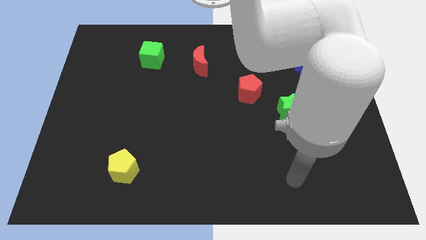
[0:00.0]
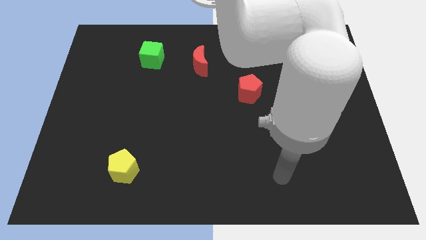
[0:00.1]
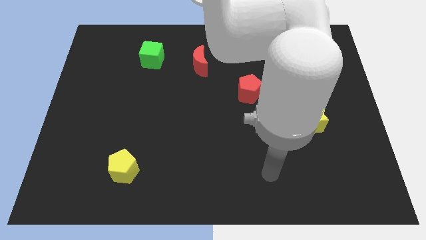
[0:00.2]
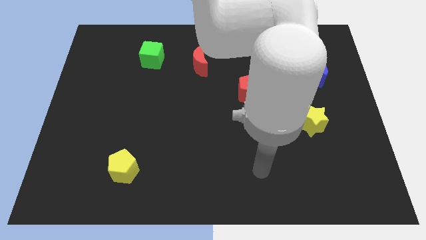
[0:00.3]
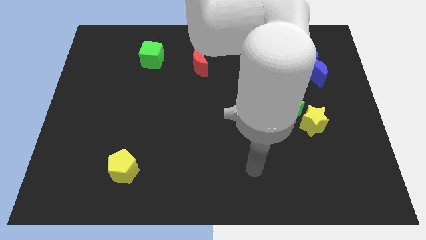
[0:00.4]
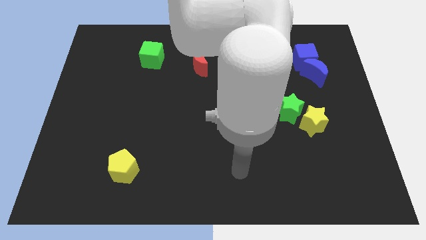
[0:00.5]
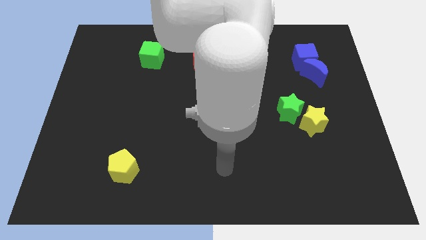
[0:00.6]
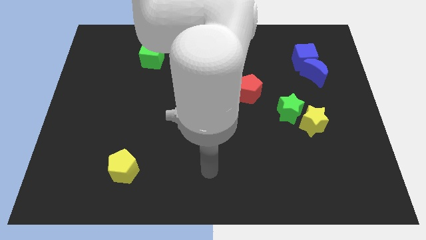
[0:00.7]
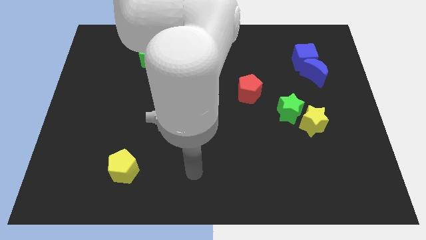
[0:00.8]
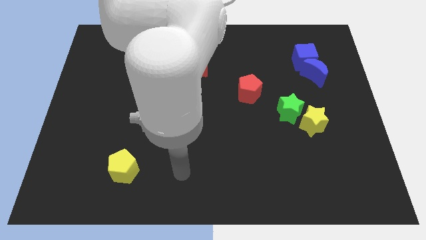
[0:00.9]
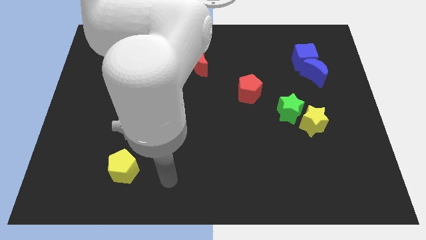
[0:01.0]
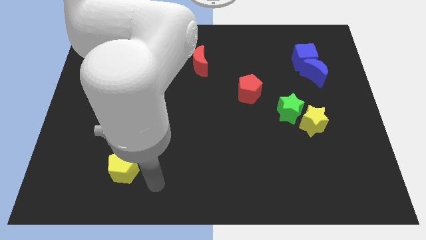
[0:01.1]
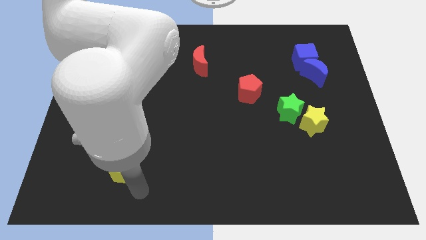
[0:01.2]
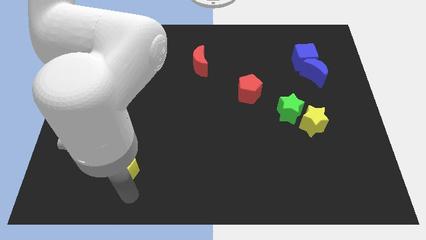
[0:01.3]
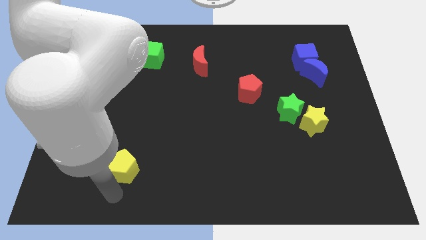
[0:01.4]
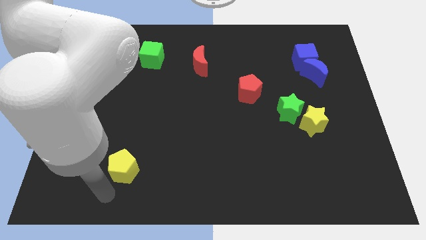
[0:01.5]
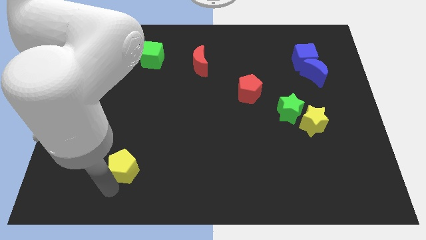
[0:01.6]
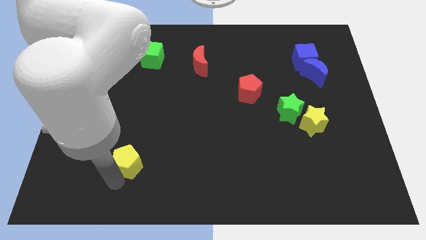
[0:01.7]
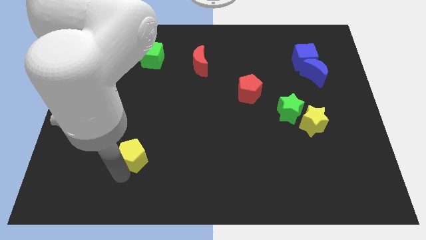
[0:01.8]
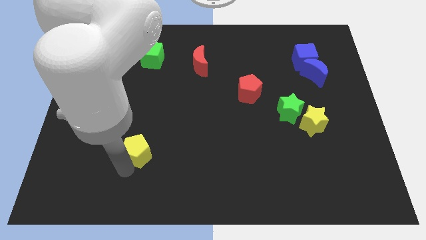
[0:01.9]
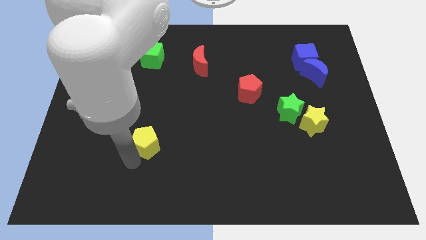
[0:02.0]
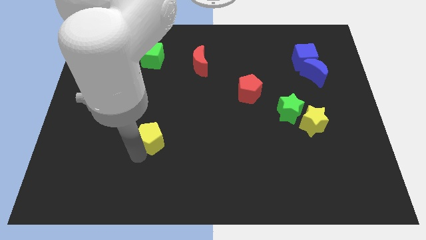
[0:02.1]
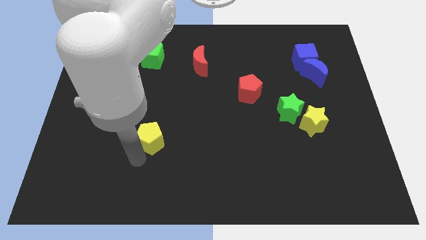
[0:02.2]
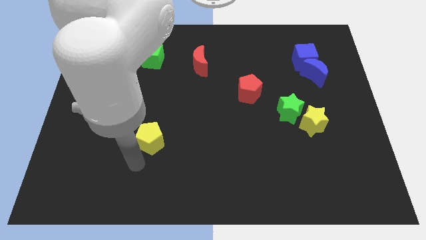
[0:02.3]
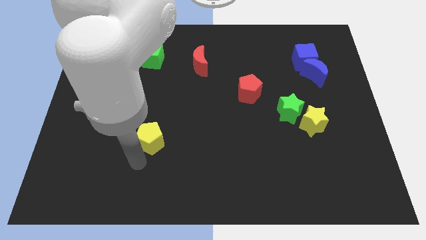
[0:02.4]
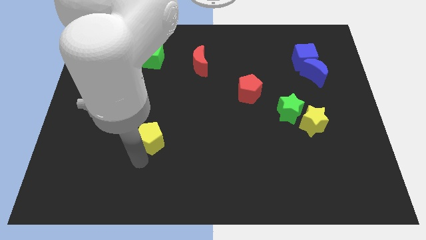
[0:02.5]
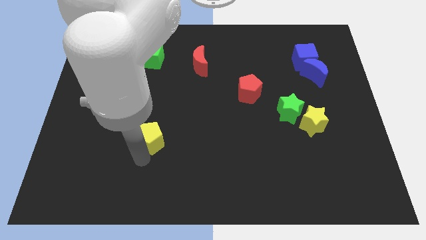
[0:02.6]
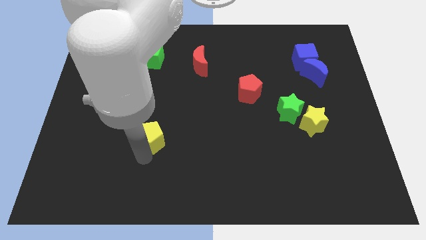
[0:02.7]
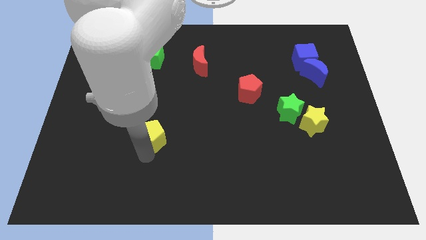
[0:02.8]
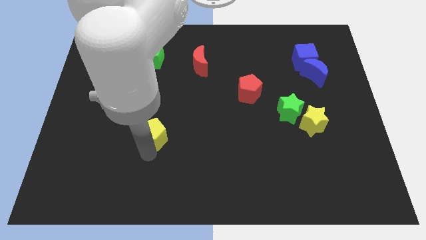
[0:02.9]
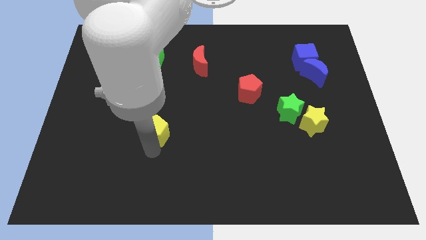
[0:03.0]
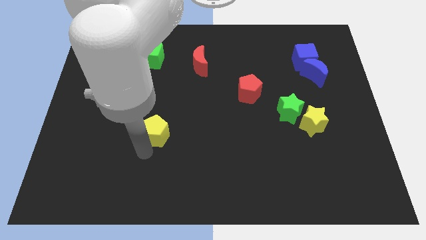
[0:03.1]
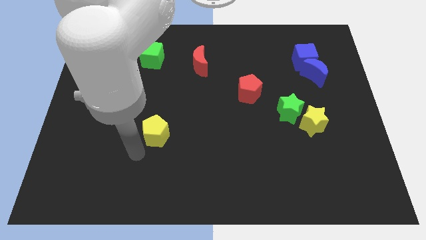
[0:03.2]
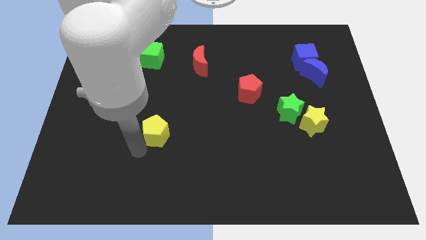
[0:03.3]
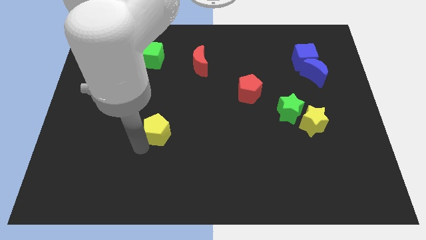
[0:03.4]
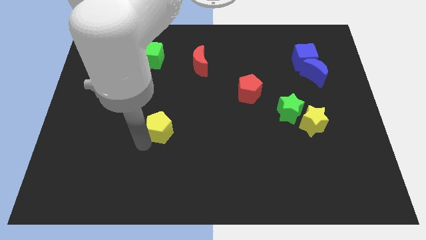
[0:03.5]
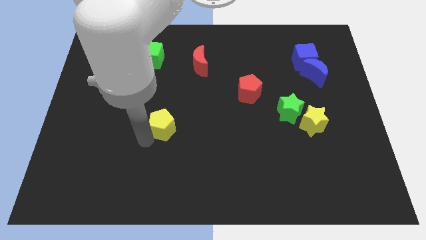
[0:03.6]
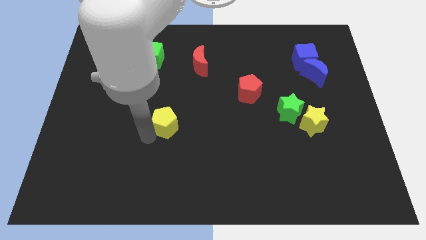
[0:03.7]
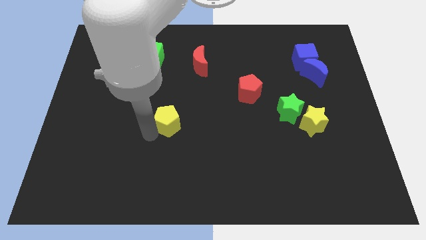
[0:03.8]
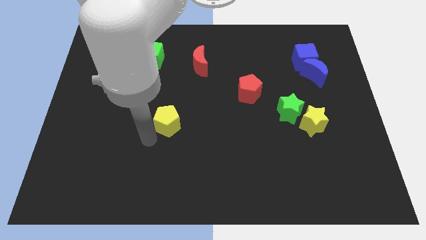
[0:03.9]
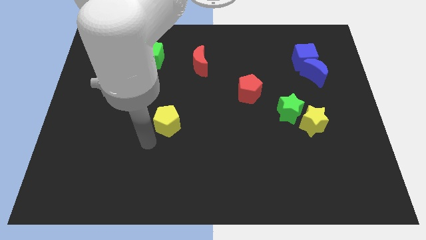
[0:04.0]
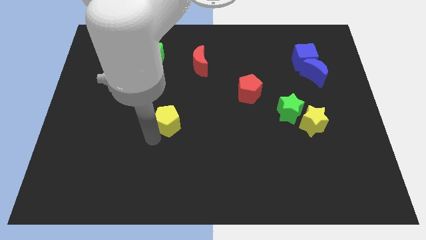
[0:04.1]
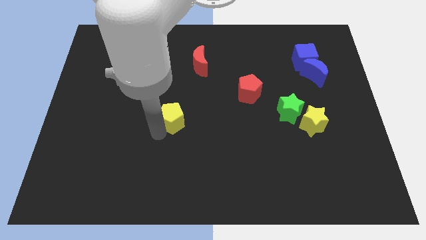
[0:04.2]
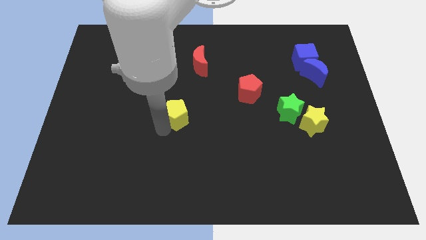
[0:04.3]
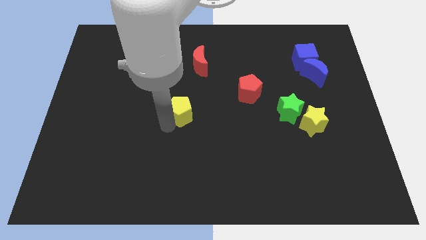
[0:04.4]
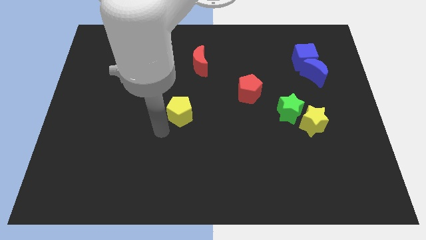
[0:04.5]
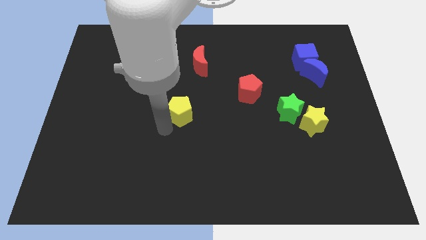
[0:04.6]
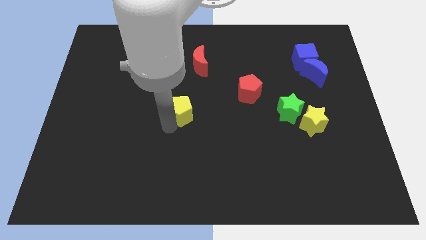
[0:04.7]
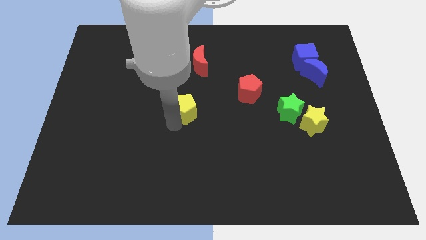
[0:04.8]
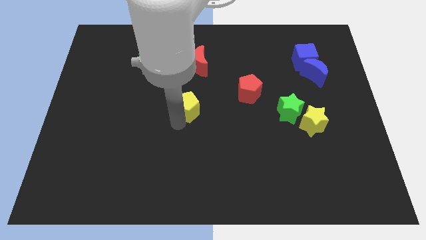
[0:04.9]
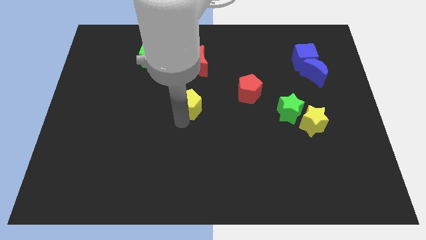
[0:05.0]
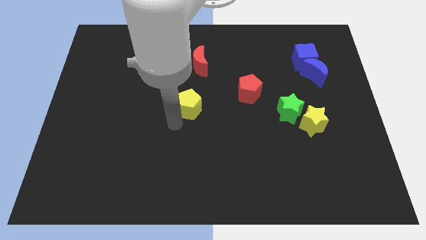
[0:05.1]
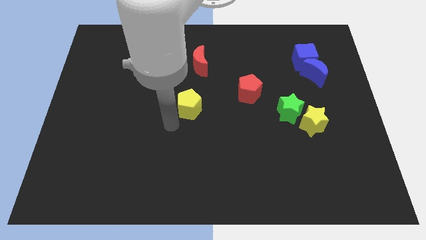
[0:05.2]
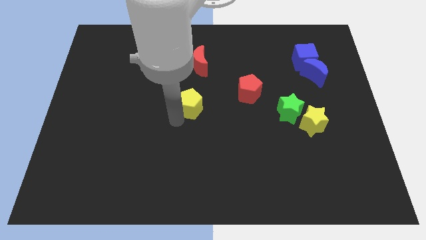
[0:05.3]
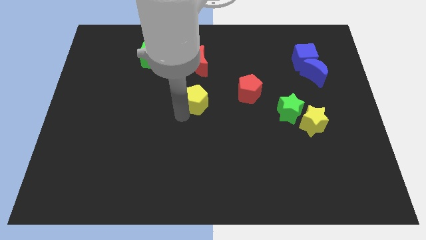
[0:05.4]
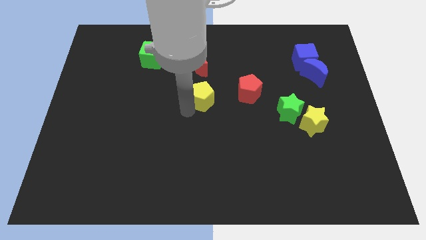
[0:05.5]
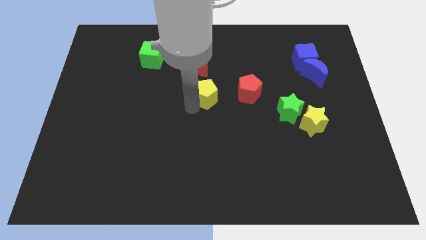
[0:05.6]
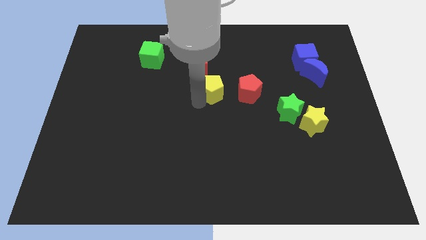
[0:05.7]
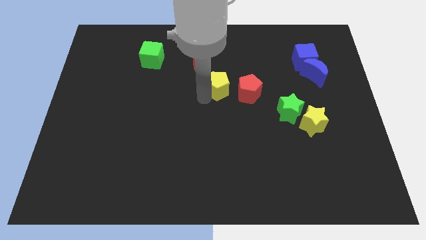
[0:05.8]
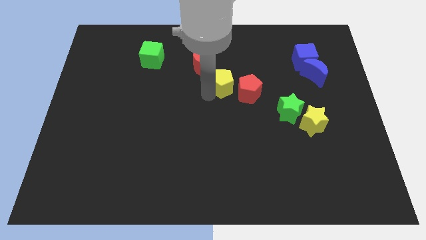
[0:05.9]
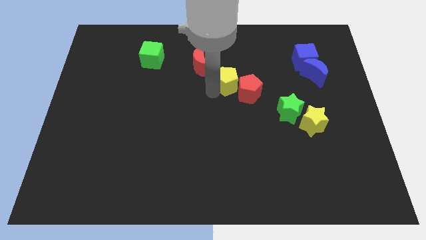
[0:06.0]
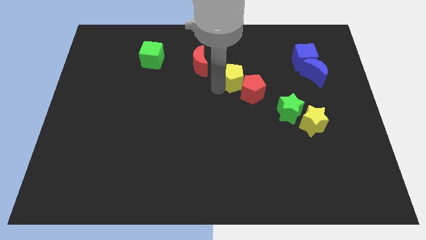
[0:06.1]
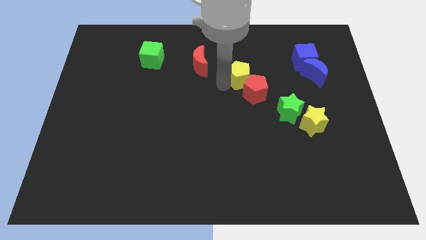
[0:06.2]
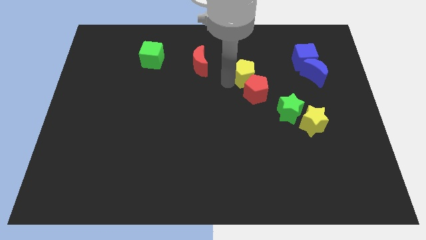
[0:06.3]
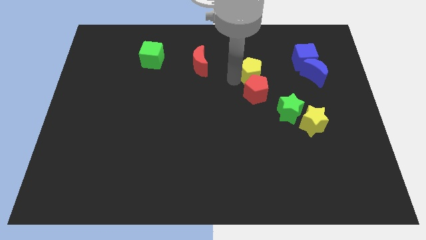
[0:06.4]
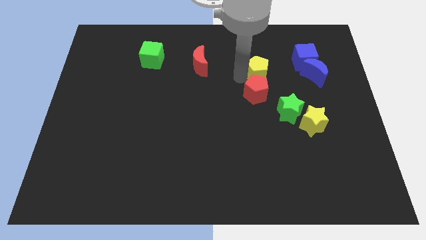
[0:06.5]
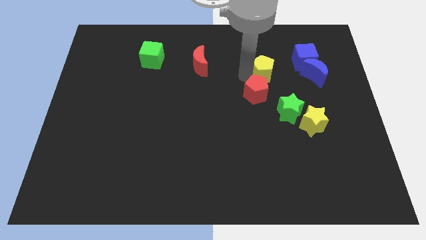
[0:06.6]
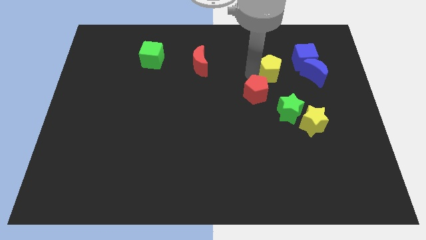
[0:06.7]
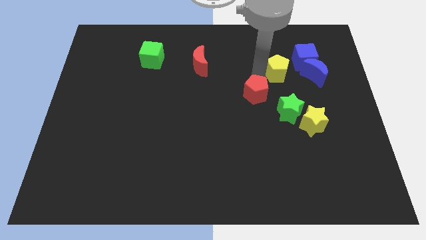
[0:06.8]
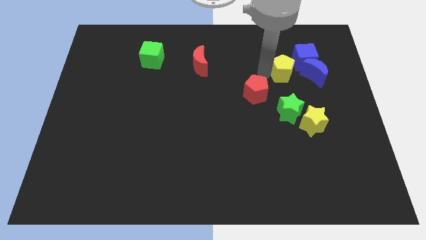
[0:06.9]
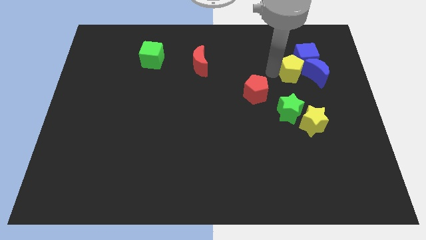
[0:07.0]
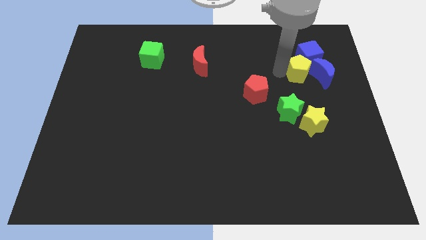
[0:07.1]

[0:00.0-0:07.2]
move the yellow pentagon to the blue moon
